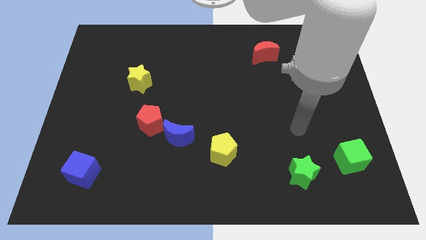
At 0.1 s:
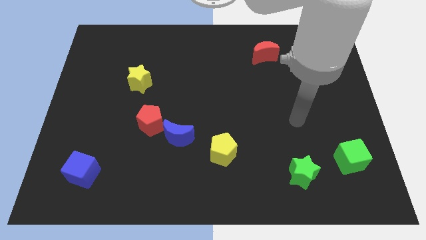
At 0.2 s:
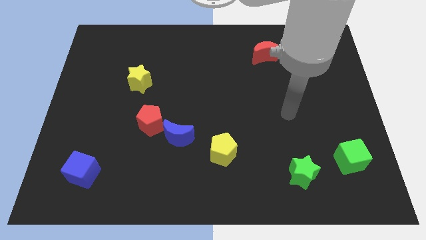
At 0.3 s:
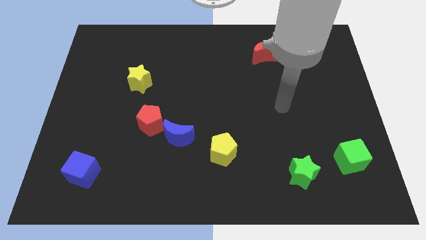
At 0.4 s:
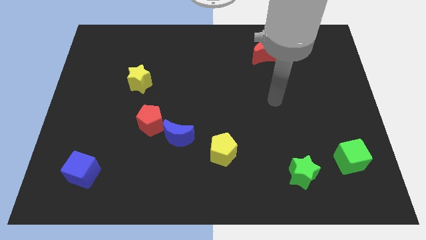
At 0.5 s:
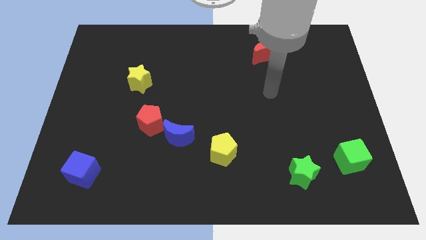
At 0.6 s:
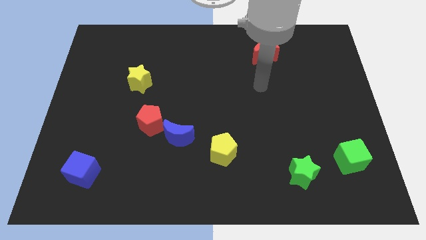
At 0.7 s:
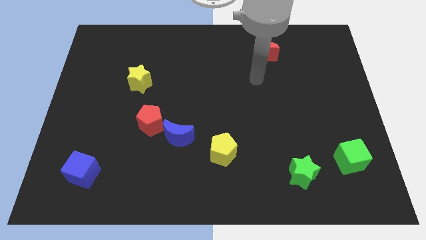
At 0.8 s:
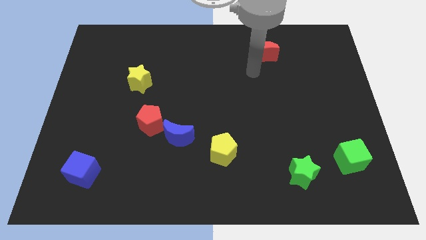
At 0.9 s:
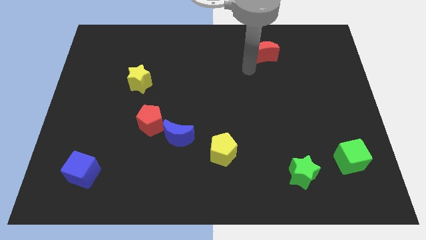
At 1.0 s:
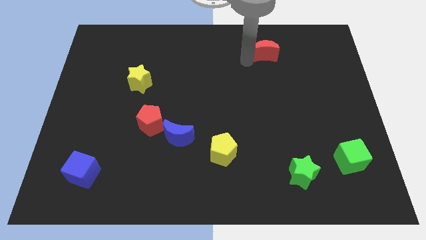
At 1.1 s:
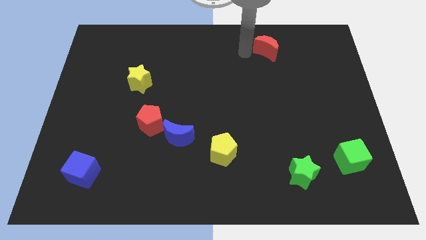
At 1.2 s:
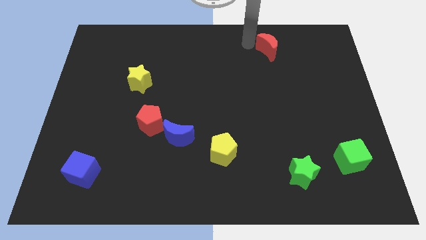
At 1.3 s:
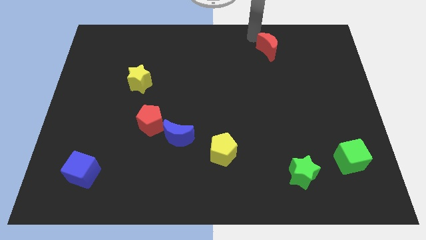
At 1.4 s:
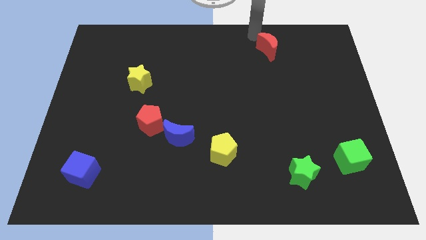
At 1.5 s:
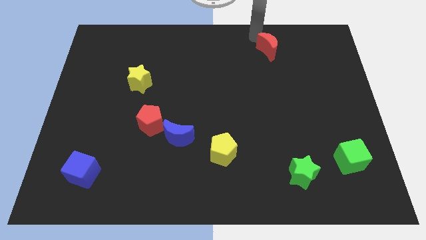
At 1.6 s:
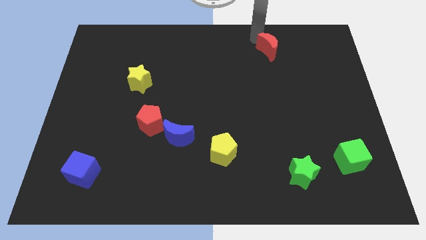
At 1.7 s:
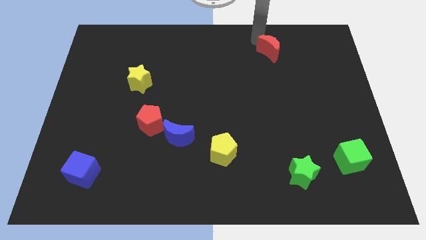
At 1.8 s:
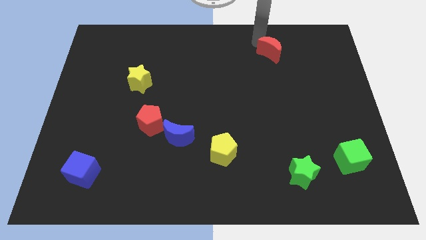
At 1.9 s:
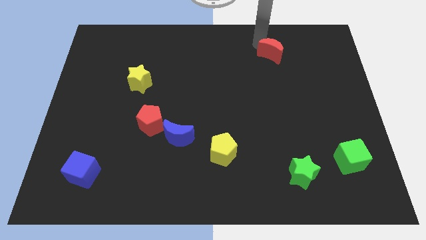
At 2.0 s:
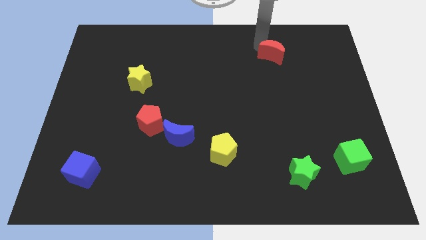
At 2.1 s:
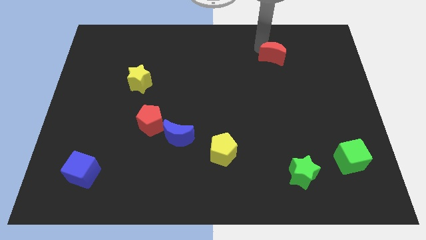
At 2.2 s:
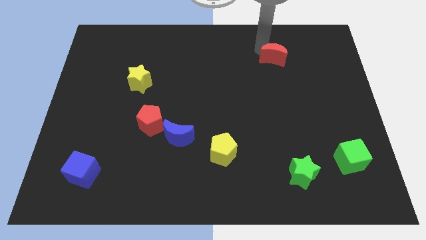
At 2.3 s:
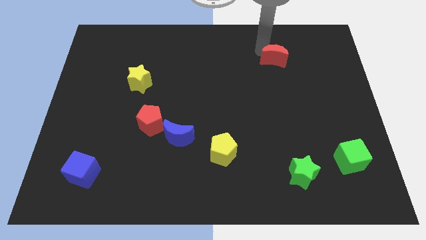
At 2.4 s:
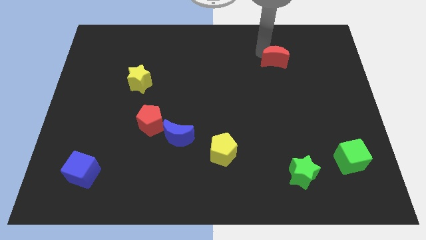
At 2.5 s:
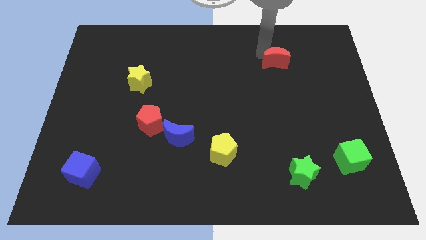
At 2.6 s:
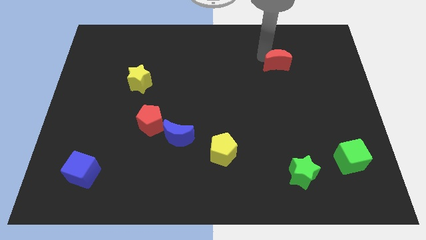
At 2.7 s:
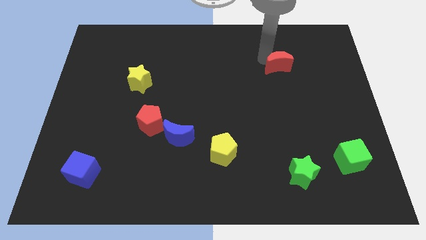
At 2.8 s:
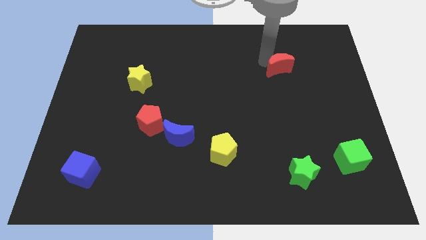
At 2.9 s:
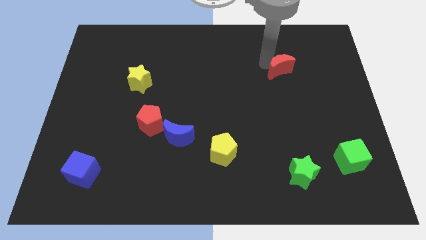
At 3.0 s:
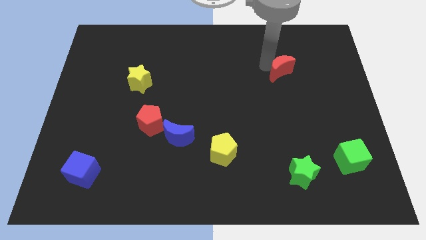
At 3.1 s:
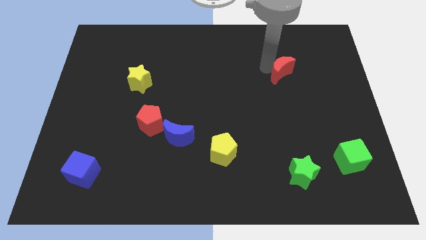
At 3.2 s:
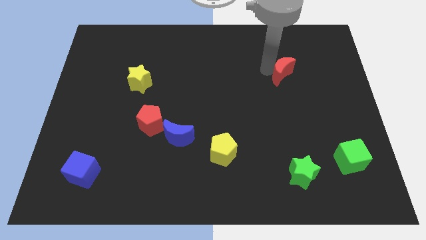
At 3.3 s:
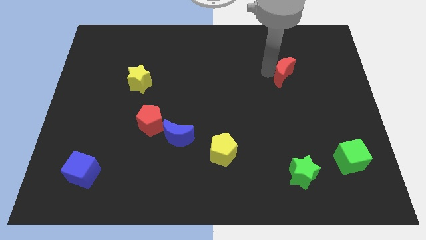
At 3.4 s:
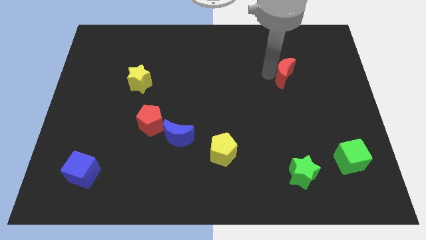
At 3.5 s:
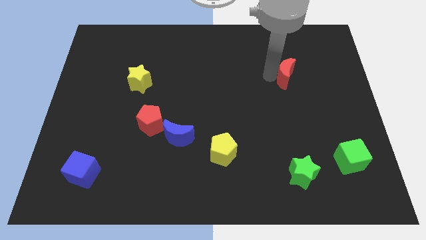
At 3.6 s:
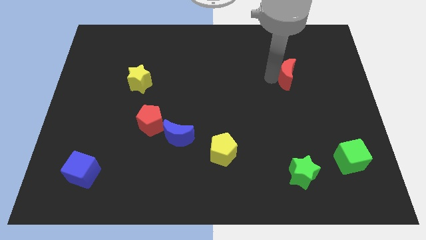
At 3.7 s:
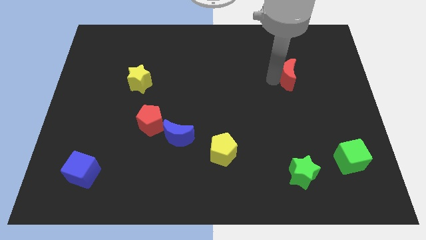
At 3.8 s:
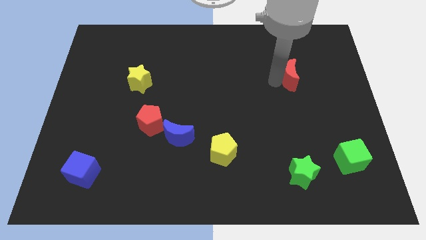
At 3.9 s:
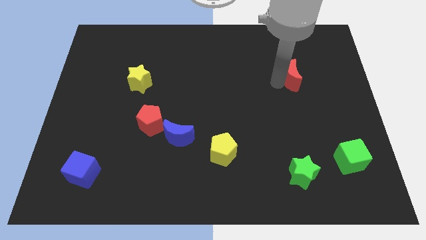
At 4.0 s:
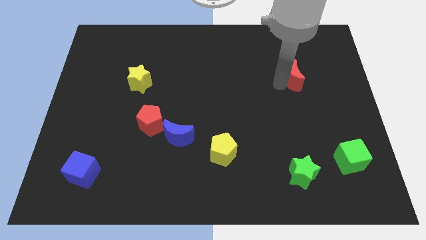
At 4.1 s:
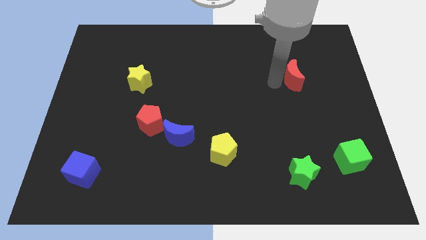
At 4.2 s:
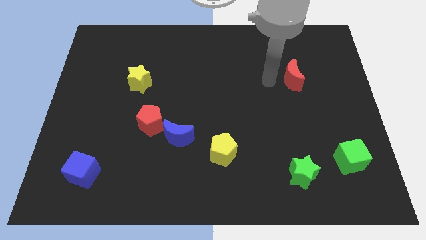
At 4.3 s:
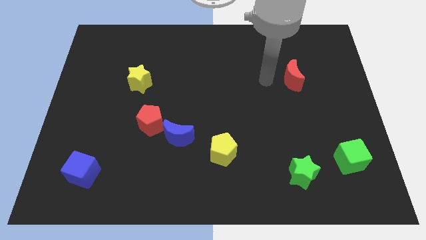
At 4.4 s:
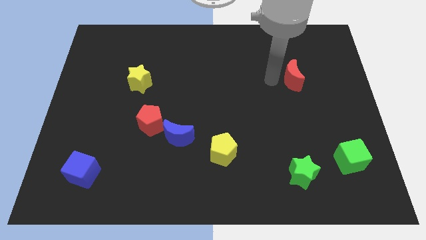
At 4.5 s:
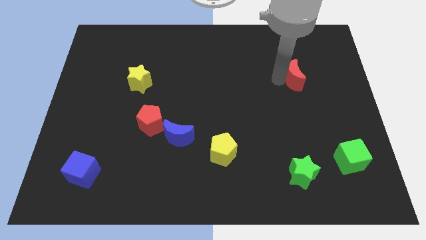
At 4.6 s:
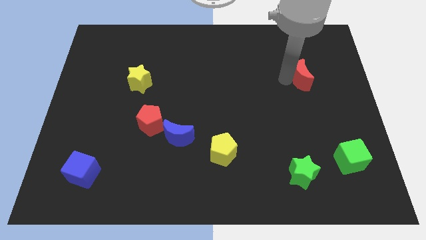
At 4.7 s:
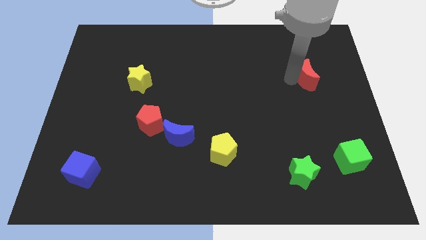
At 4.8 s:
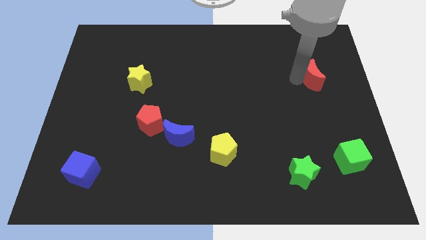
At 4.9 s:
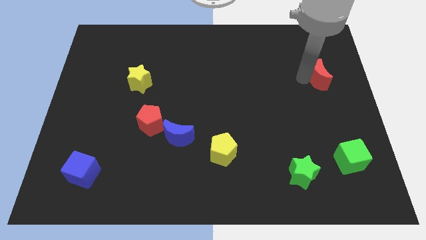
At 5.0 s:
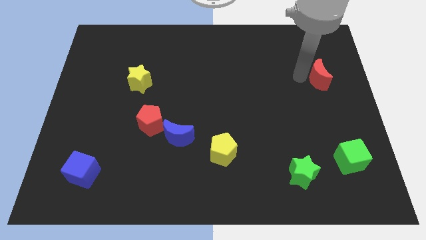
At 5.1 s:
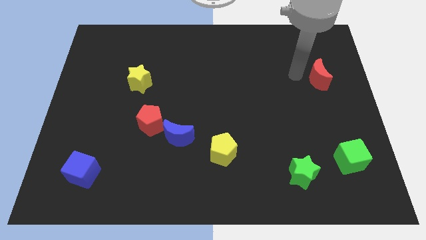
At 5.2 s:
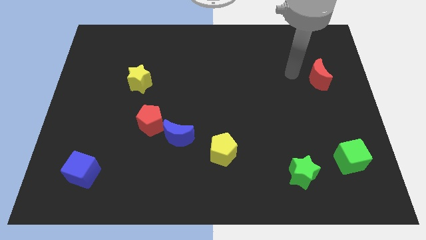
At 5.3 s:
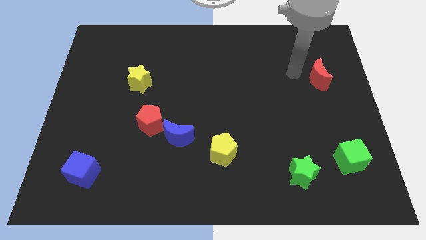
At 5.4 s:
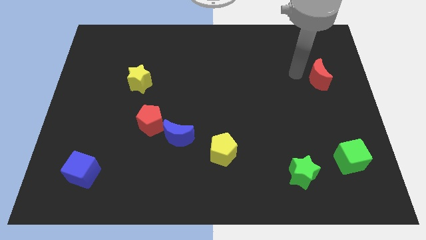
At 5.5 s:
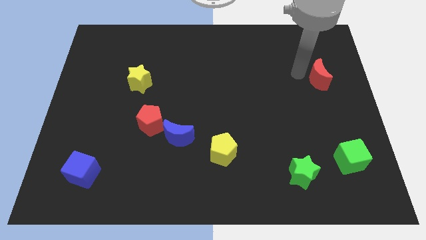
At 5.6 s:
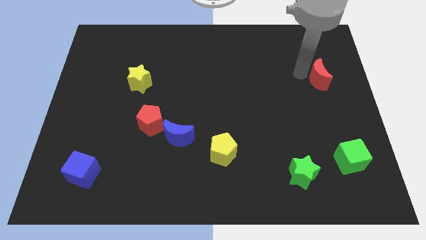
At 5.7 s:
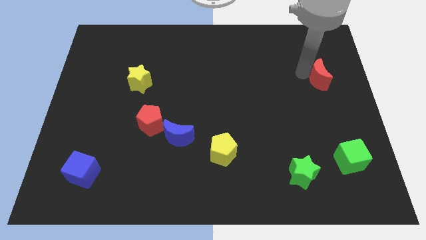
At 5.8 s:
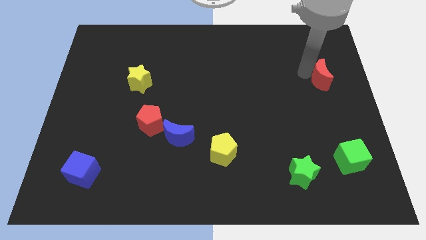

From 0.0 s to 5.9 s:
move the red moon to the center right

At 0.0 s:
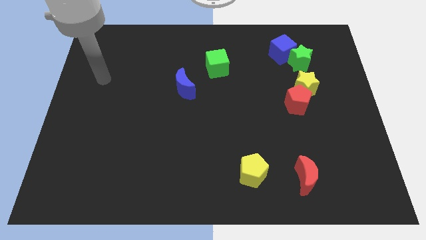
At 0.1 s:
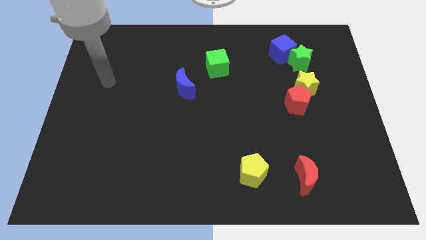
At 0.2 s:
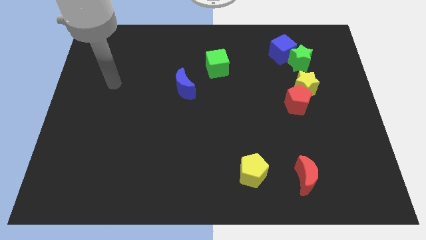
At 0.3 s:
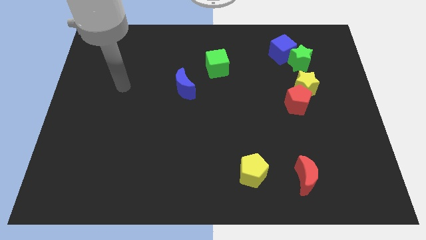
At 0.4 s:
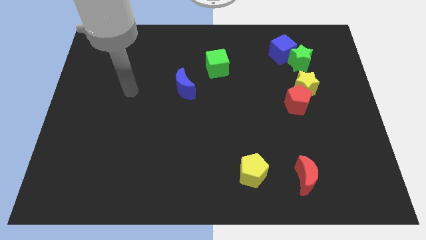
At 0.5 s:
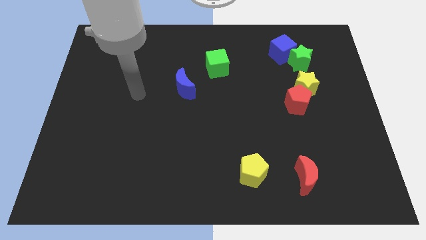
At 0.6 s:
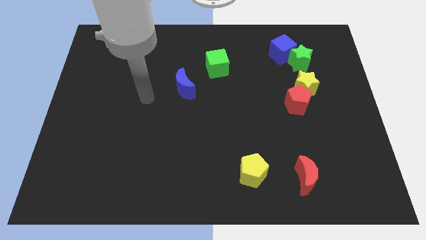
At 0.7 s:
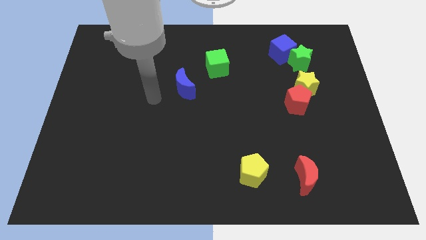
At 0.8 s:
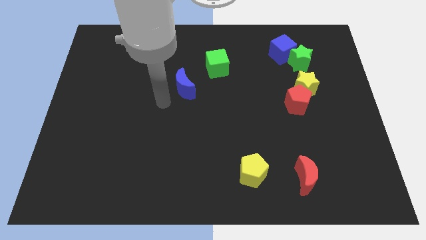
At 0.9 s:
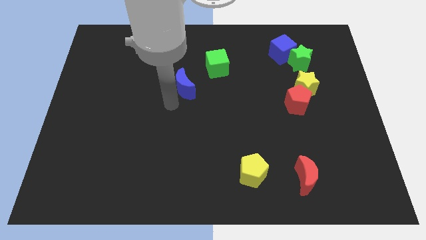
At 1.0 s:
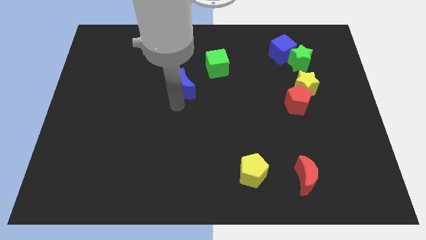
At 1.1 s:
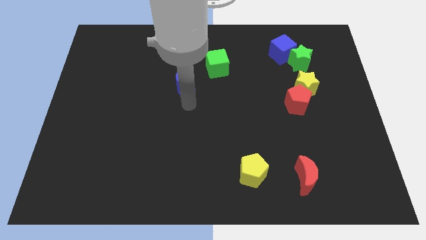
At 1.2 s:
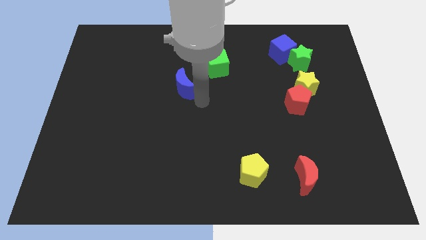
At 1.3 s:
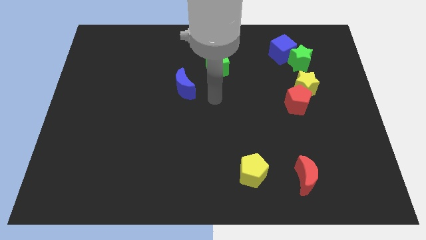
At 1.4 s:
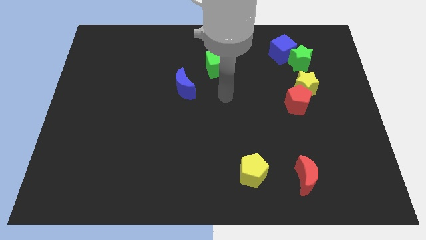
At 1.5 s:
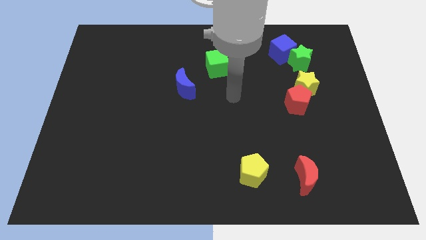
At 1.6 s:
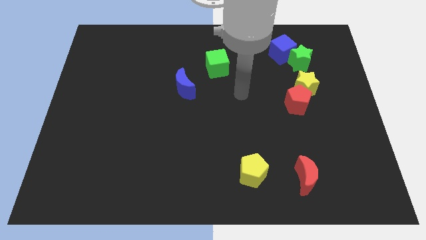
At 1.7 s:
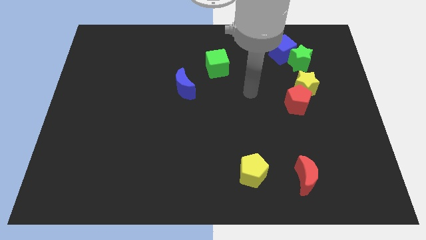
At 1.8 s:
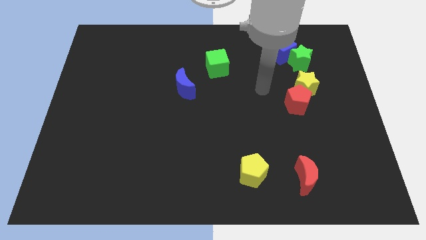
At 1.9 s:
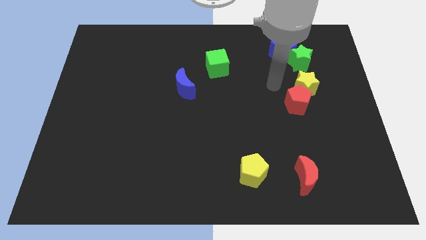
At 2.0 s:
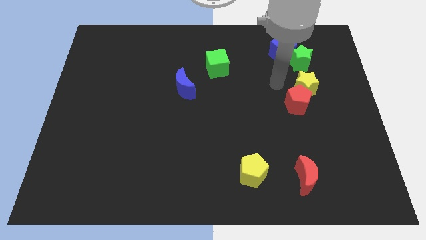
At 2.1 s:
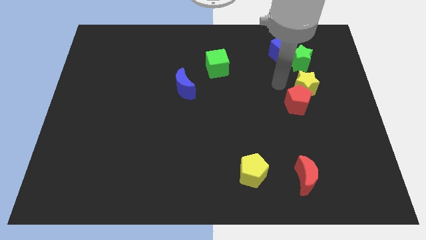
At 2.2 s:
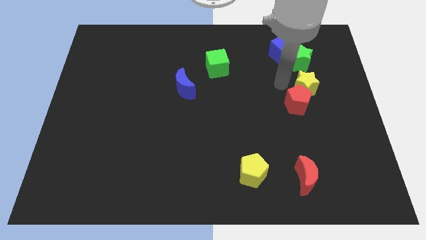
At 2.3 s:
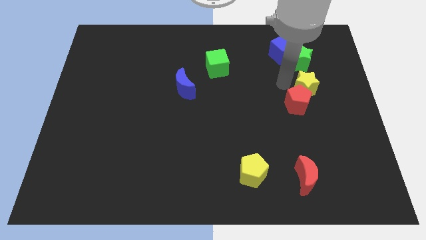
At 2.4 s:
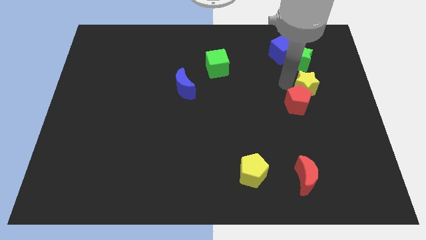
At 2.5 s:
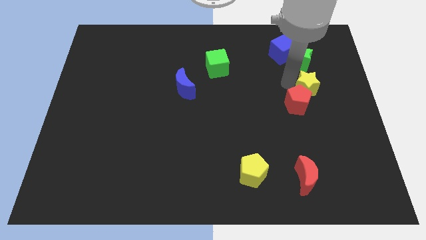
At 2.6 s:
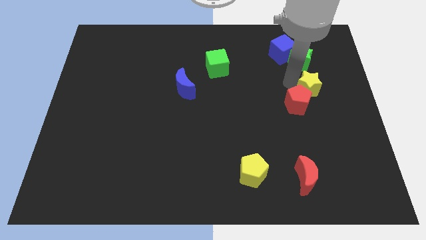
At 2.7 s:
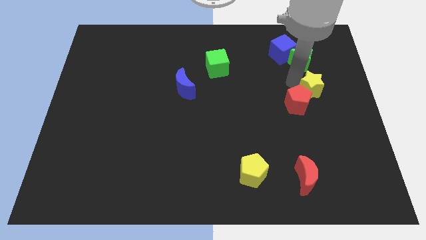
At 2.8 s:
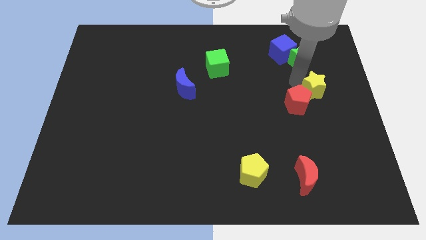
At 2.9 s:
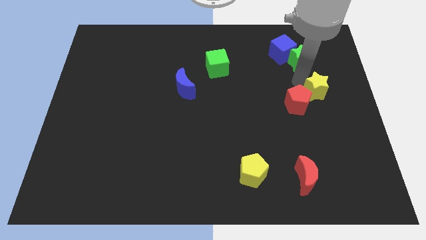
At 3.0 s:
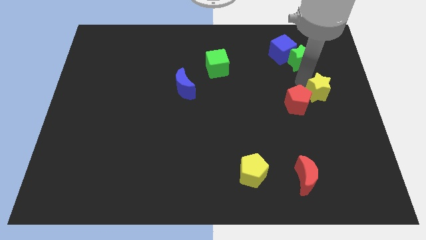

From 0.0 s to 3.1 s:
move the yellow star to the center right
